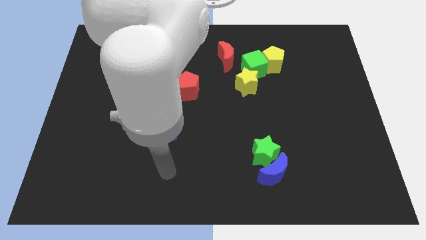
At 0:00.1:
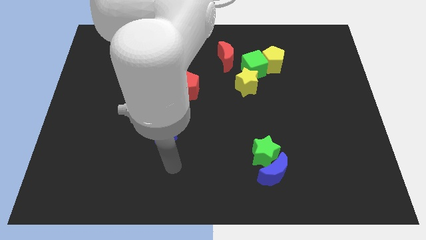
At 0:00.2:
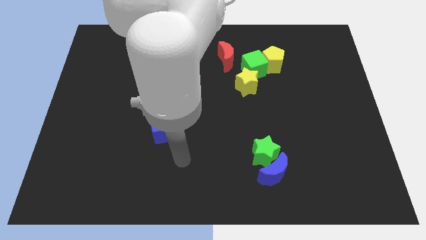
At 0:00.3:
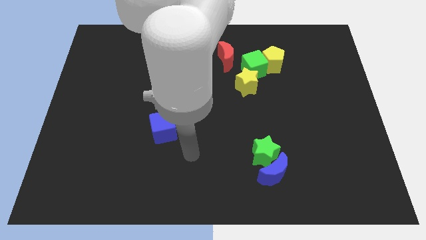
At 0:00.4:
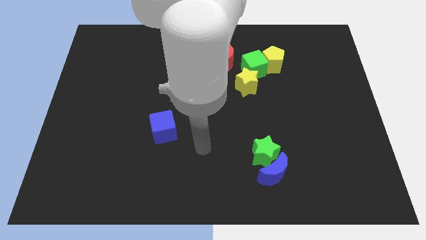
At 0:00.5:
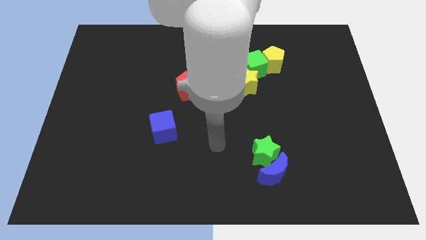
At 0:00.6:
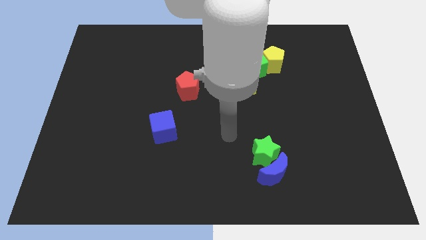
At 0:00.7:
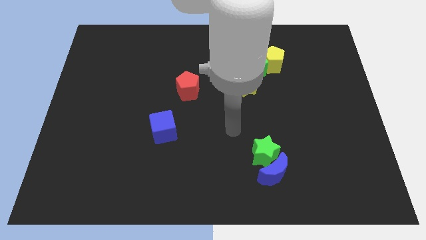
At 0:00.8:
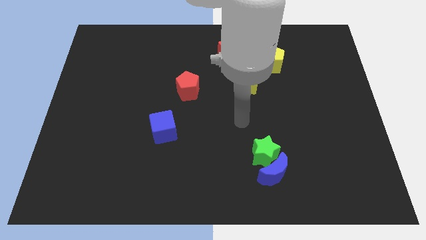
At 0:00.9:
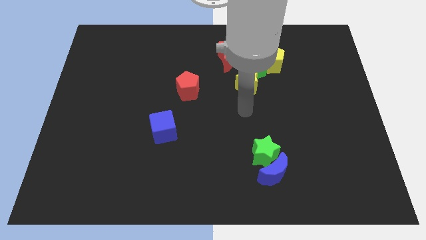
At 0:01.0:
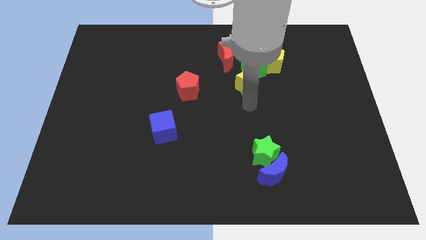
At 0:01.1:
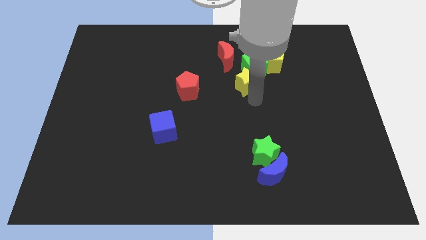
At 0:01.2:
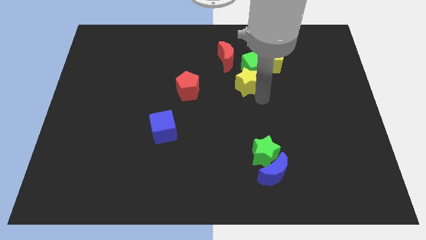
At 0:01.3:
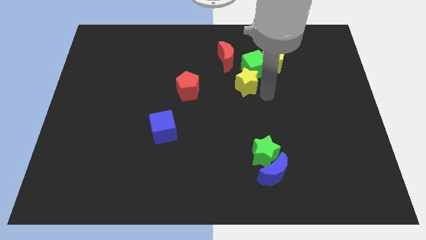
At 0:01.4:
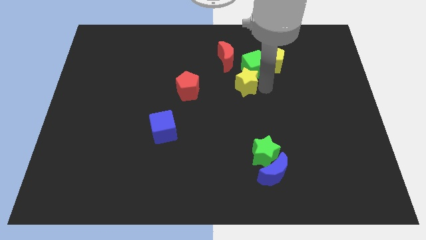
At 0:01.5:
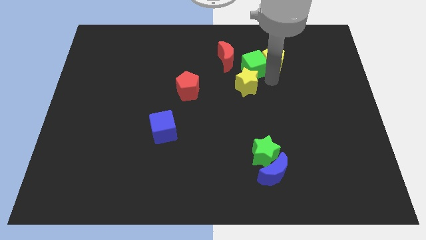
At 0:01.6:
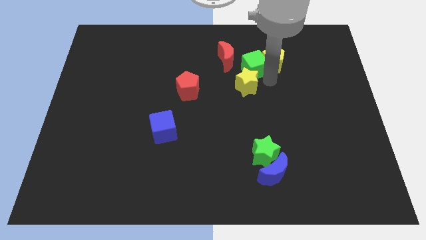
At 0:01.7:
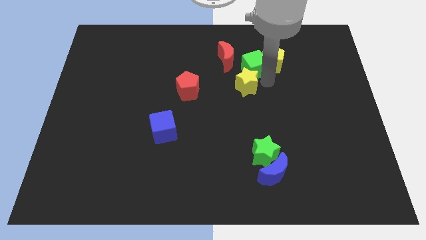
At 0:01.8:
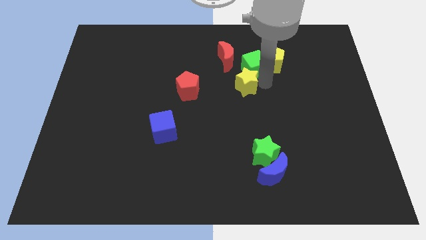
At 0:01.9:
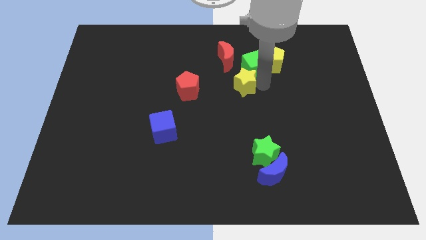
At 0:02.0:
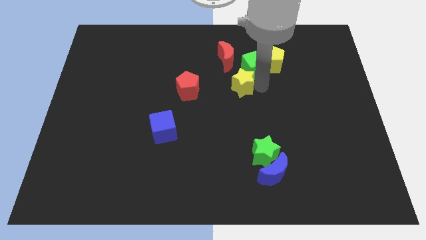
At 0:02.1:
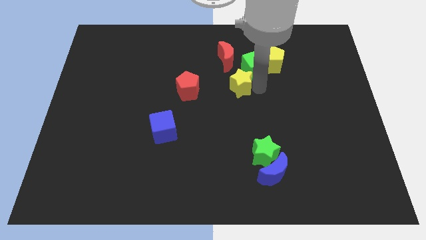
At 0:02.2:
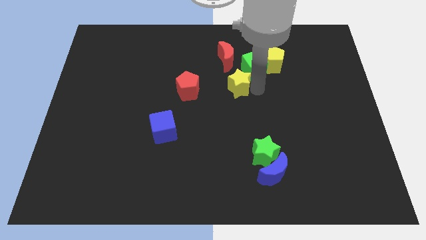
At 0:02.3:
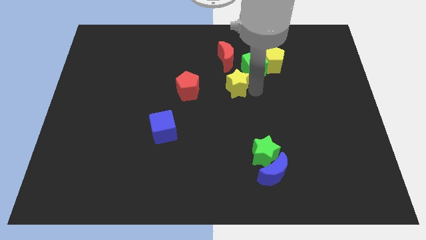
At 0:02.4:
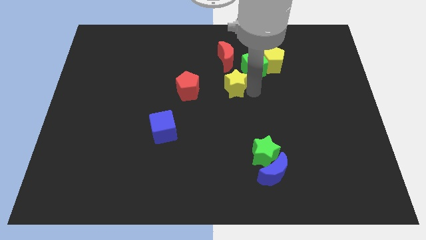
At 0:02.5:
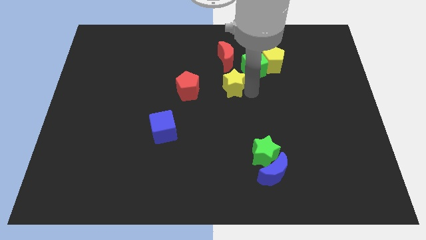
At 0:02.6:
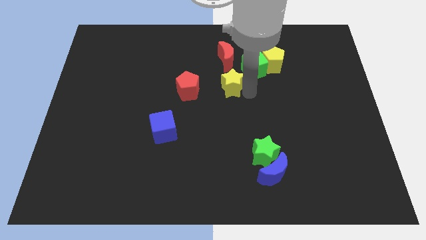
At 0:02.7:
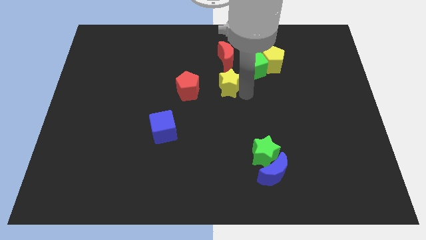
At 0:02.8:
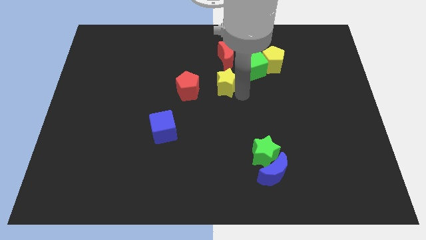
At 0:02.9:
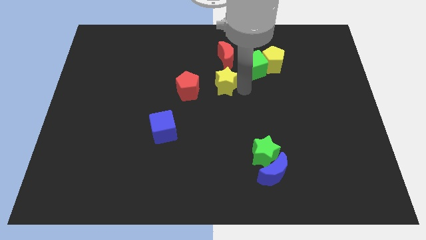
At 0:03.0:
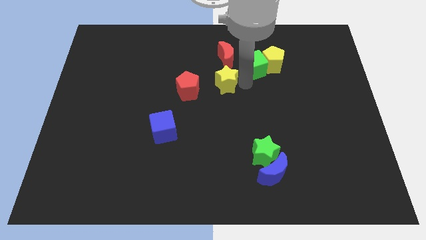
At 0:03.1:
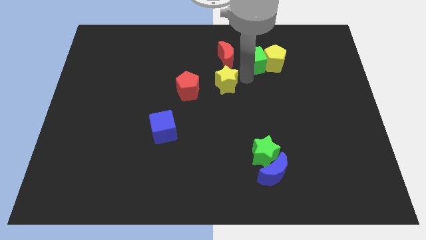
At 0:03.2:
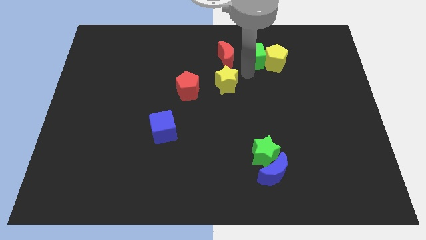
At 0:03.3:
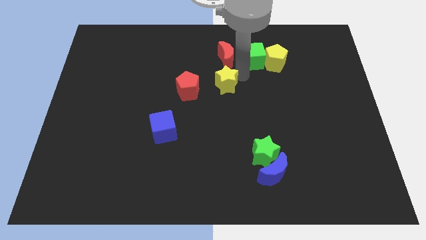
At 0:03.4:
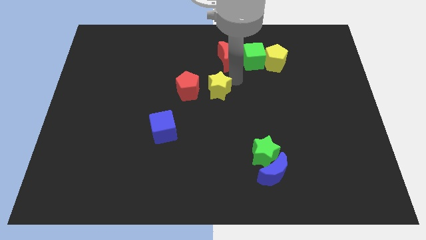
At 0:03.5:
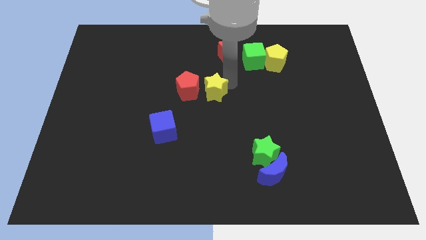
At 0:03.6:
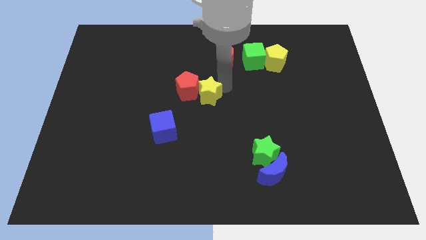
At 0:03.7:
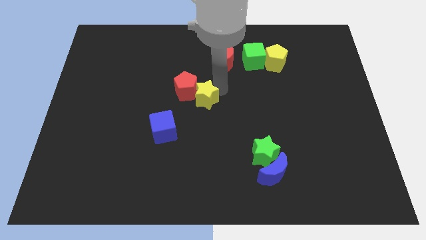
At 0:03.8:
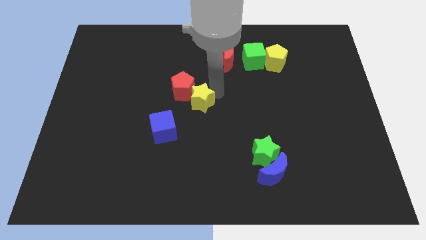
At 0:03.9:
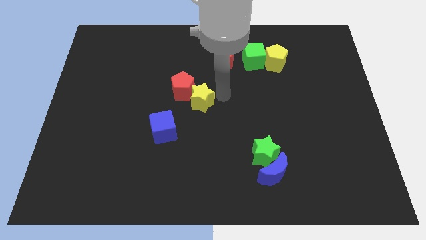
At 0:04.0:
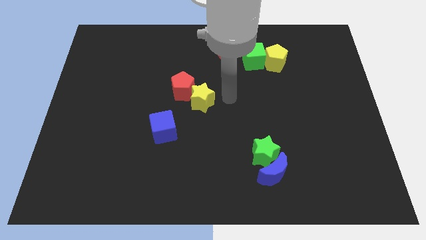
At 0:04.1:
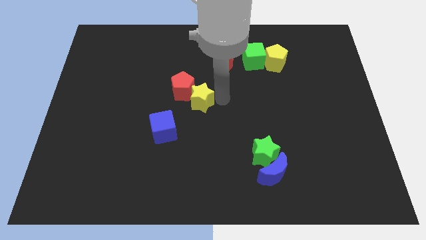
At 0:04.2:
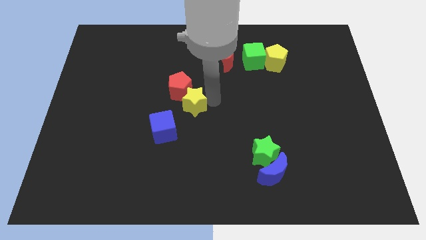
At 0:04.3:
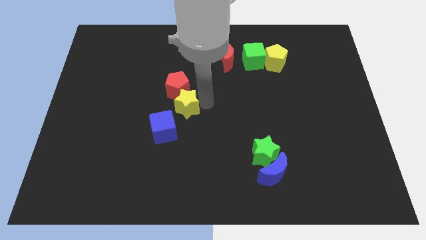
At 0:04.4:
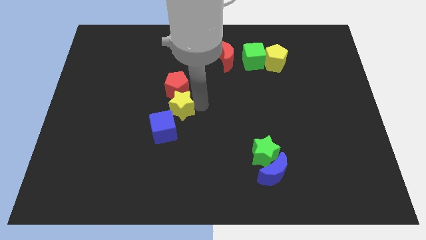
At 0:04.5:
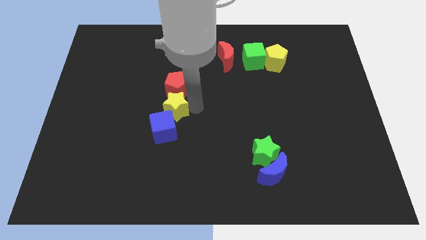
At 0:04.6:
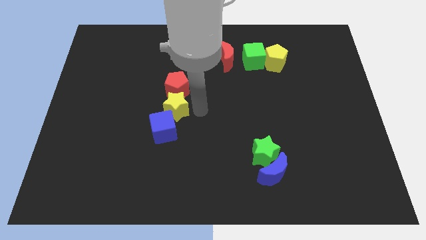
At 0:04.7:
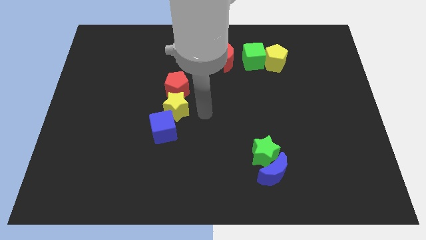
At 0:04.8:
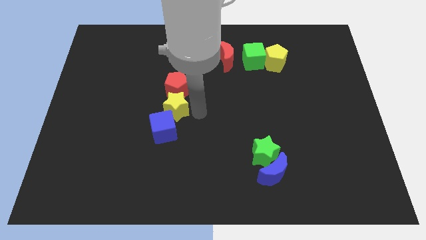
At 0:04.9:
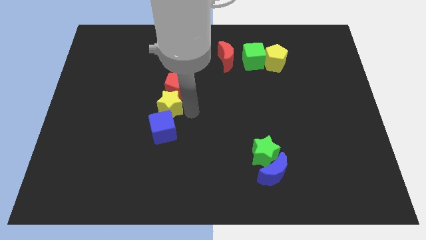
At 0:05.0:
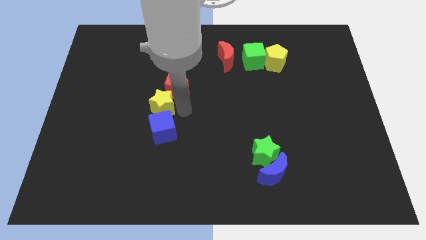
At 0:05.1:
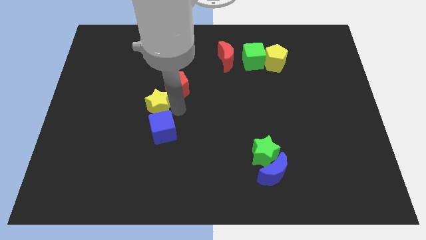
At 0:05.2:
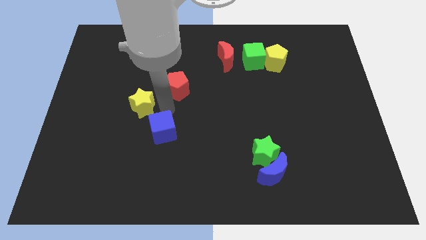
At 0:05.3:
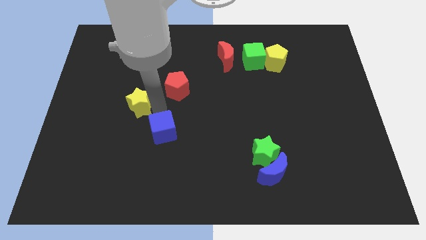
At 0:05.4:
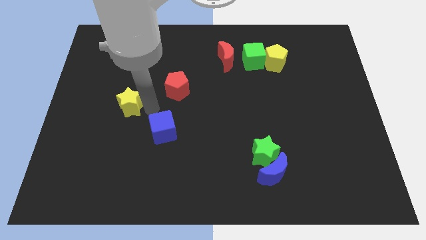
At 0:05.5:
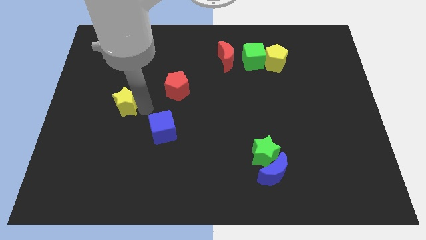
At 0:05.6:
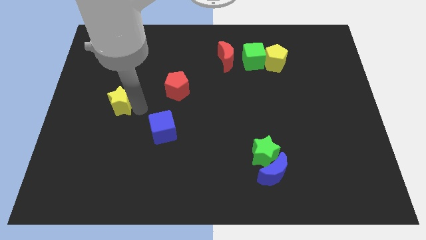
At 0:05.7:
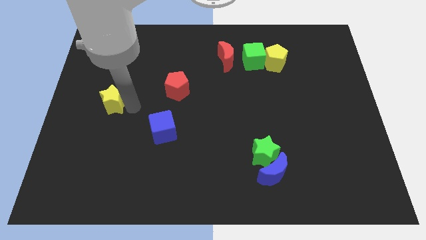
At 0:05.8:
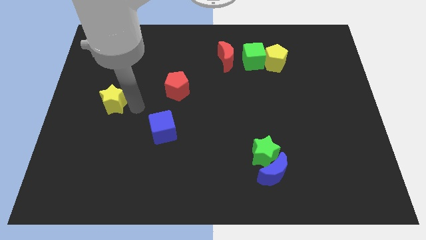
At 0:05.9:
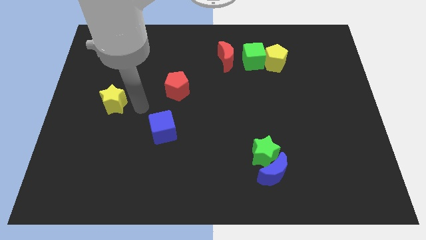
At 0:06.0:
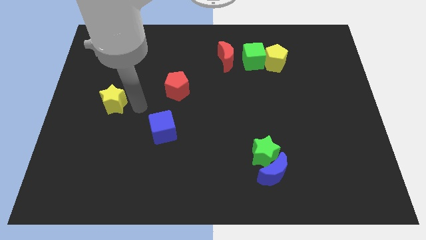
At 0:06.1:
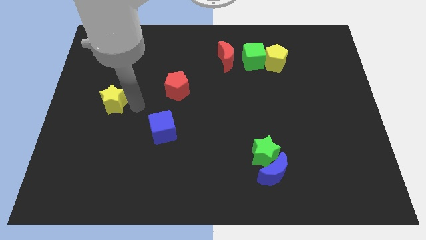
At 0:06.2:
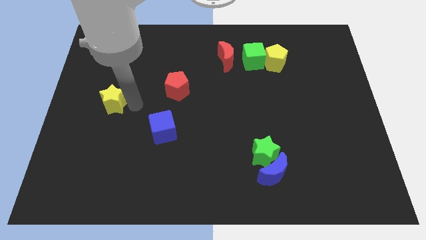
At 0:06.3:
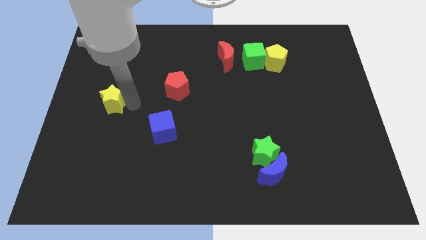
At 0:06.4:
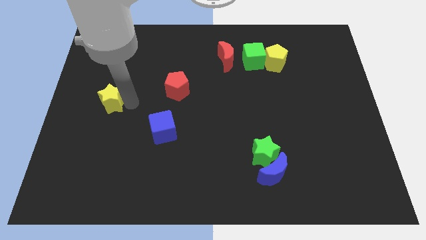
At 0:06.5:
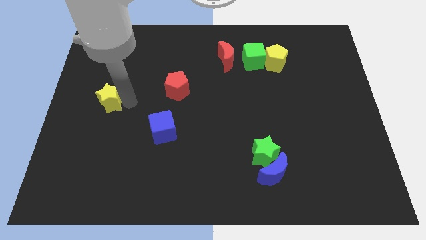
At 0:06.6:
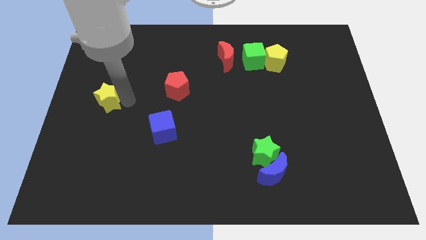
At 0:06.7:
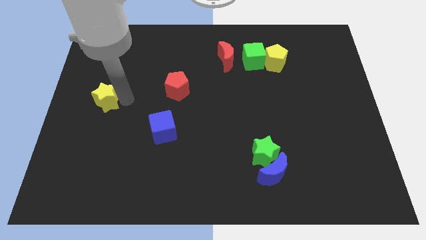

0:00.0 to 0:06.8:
put the yellow star to the left side of the board
